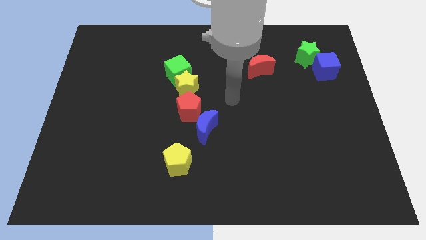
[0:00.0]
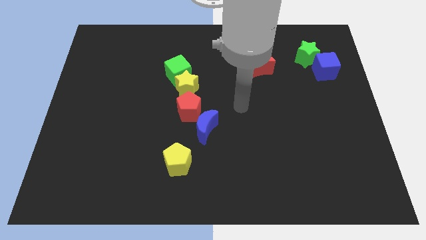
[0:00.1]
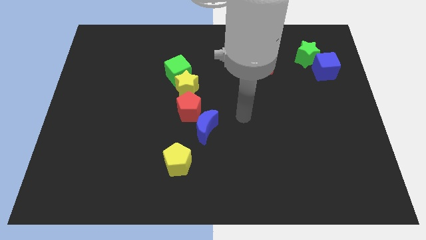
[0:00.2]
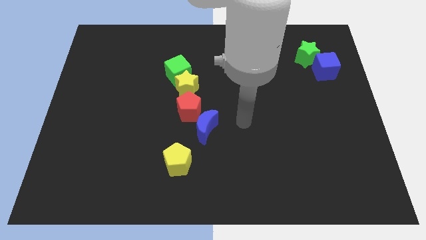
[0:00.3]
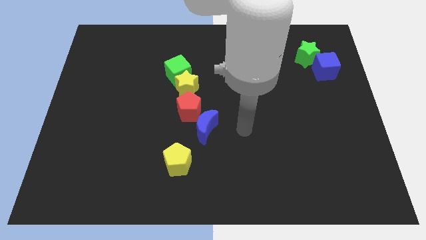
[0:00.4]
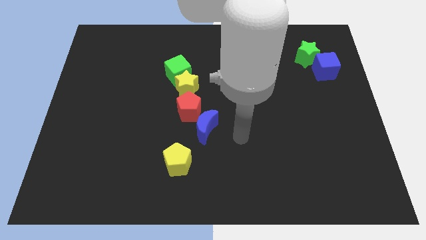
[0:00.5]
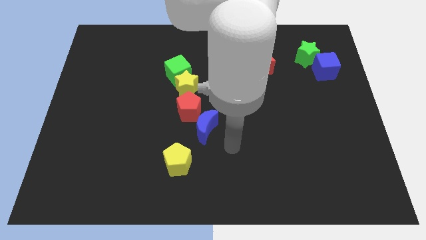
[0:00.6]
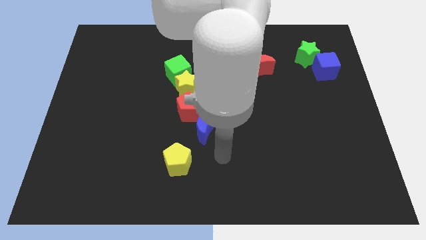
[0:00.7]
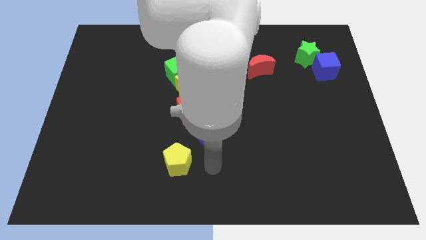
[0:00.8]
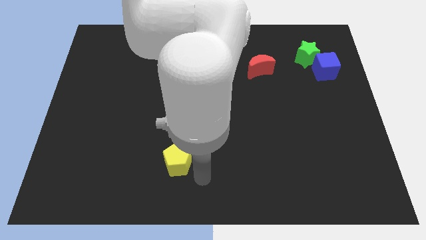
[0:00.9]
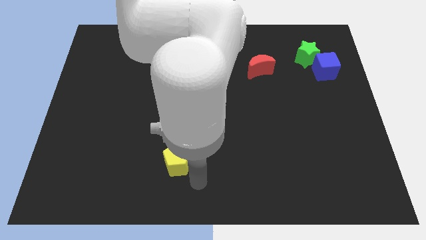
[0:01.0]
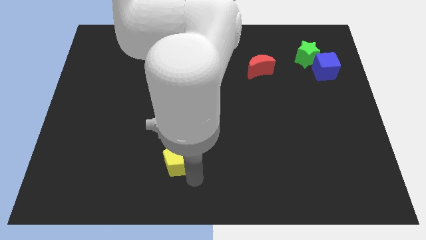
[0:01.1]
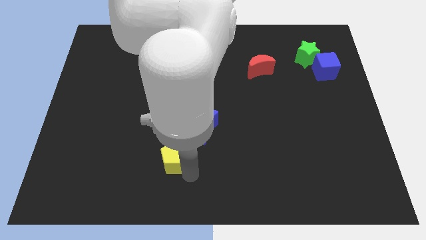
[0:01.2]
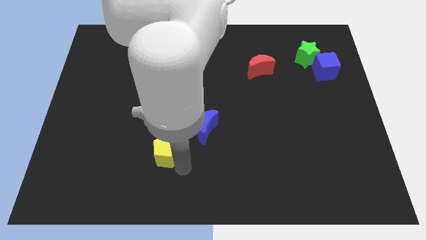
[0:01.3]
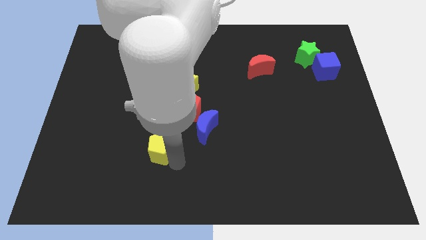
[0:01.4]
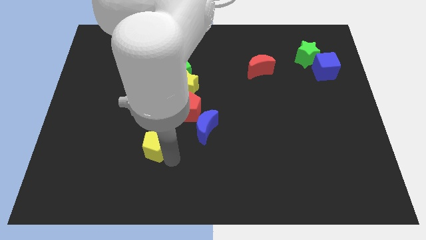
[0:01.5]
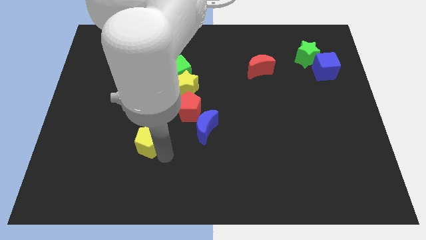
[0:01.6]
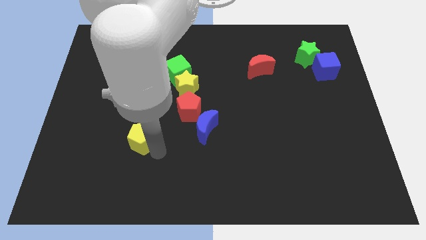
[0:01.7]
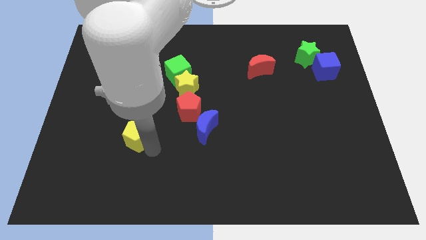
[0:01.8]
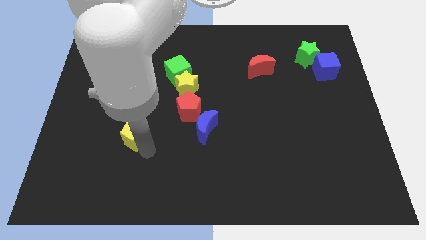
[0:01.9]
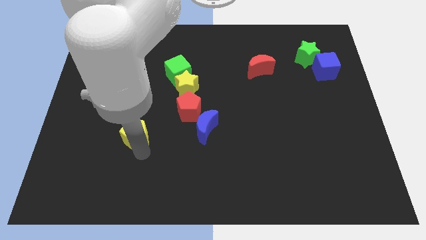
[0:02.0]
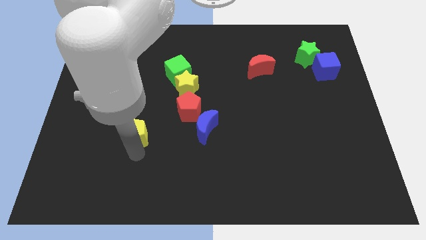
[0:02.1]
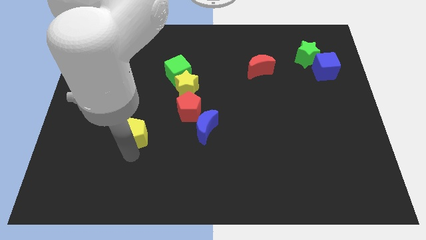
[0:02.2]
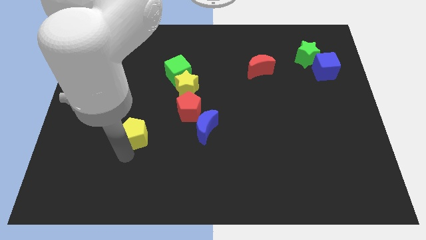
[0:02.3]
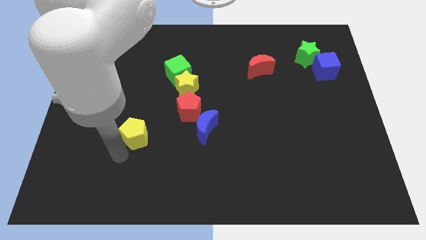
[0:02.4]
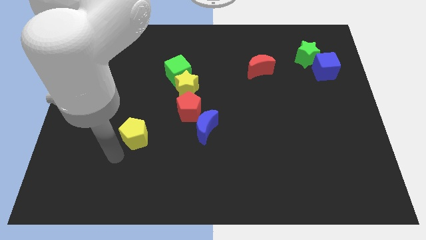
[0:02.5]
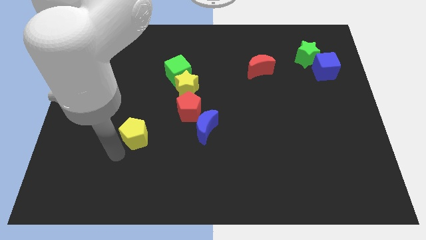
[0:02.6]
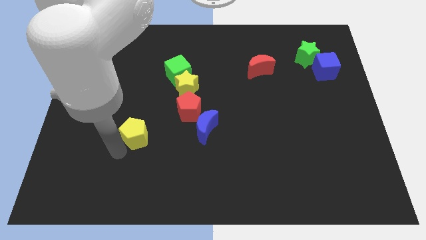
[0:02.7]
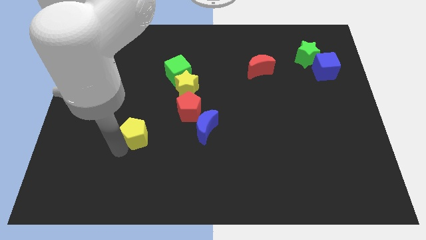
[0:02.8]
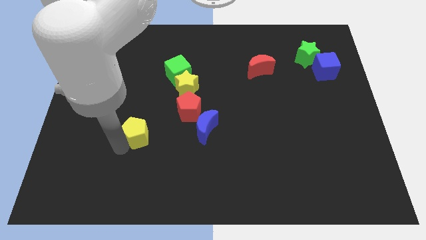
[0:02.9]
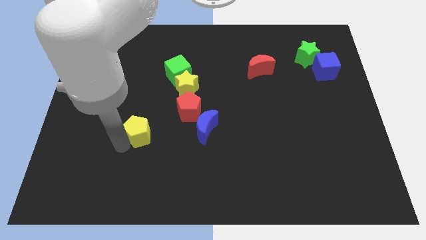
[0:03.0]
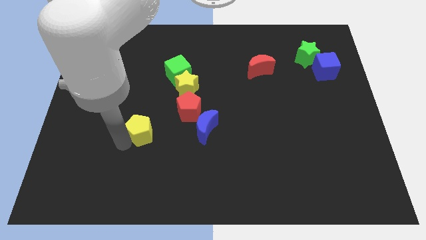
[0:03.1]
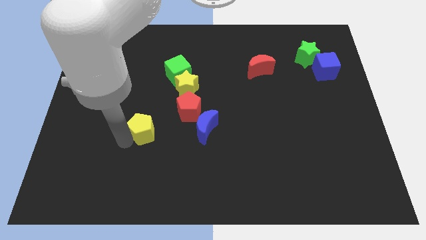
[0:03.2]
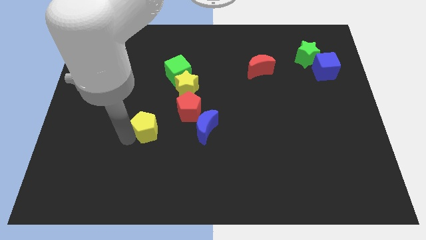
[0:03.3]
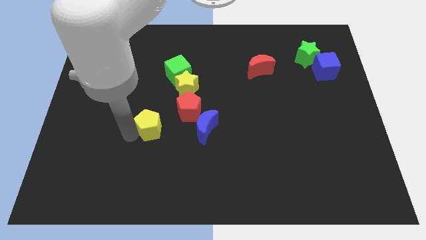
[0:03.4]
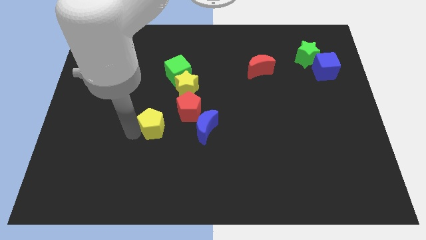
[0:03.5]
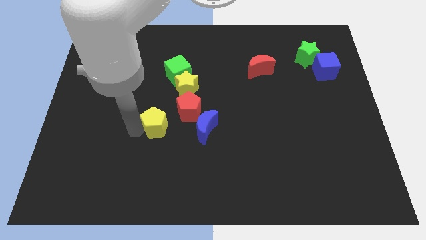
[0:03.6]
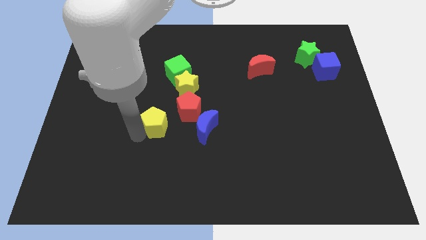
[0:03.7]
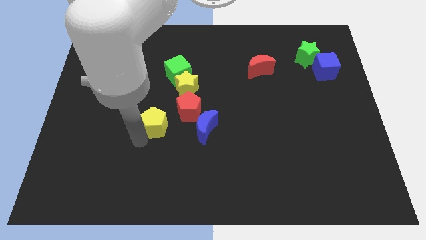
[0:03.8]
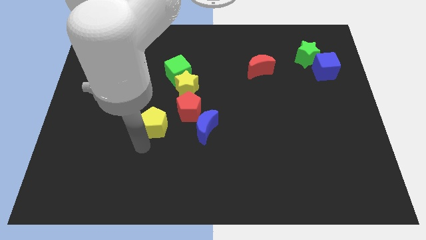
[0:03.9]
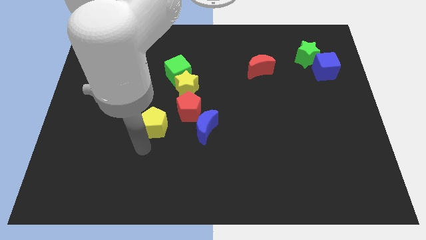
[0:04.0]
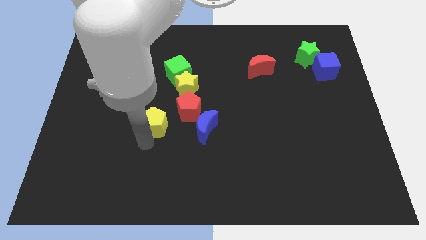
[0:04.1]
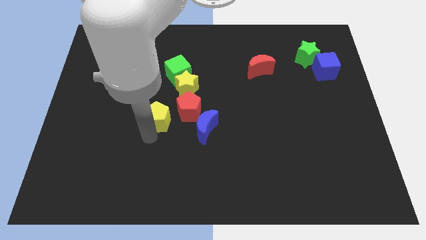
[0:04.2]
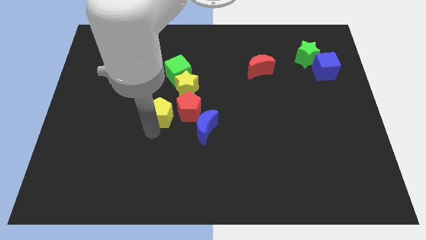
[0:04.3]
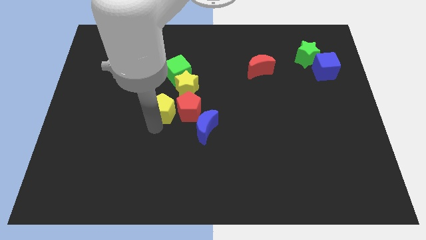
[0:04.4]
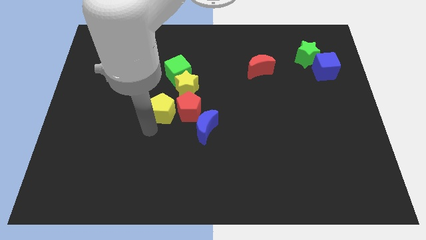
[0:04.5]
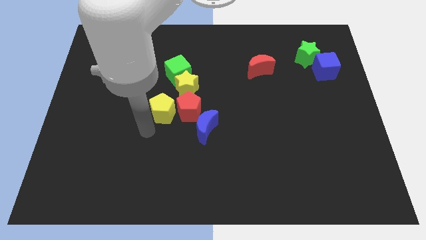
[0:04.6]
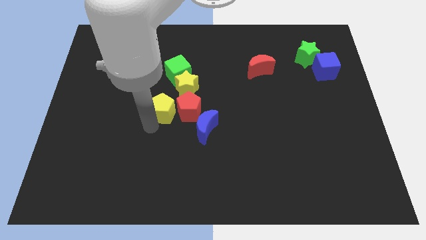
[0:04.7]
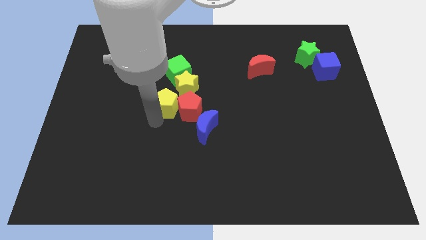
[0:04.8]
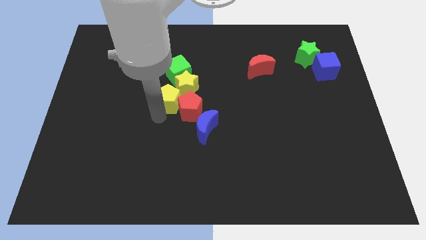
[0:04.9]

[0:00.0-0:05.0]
move the yellow pentagon to the yellow star

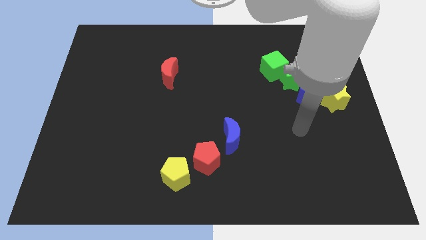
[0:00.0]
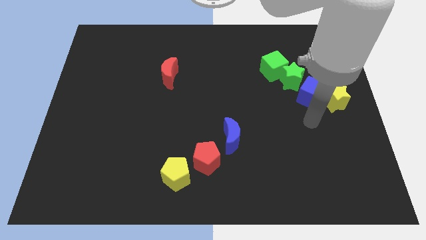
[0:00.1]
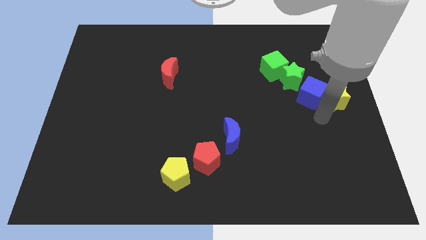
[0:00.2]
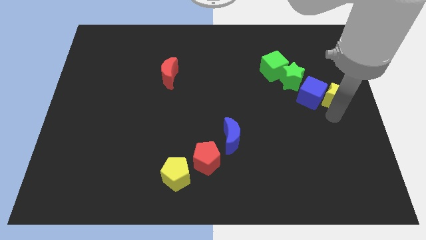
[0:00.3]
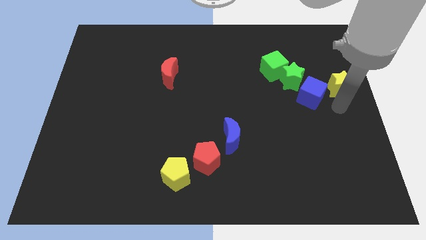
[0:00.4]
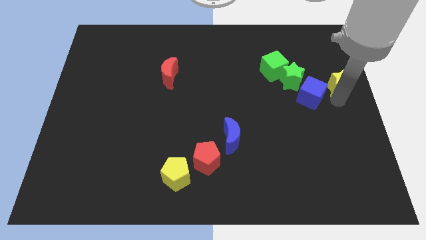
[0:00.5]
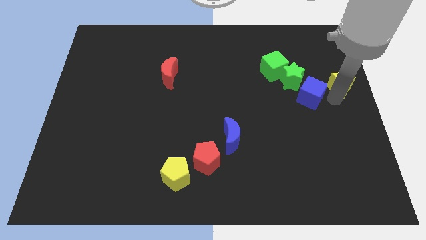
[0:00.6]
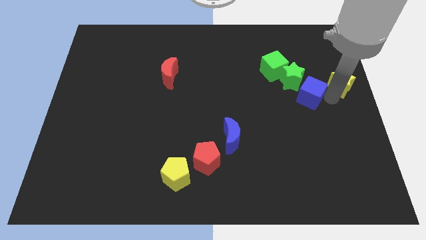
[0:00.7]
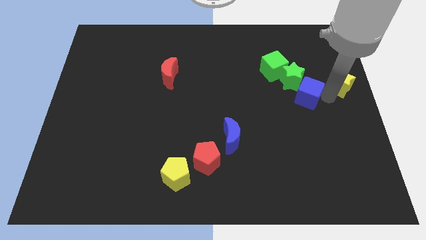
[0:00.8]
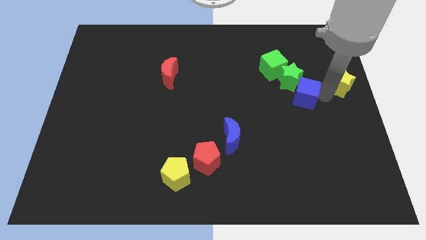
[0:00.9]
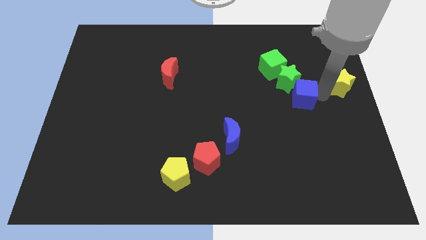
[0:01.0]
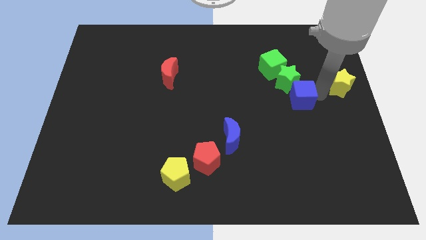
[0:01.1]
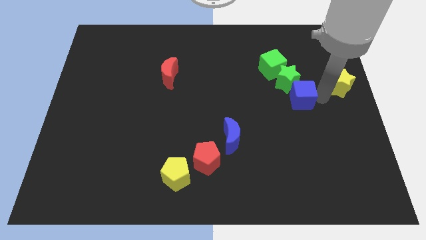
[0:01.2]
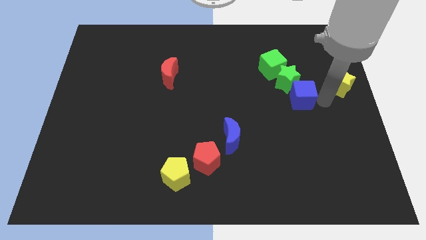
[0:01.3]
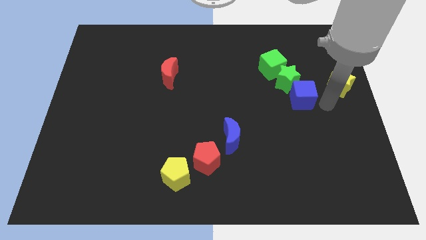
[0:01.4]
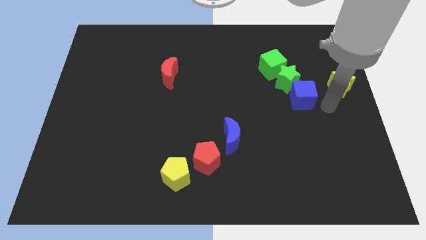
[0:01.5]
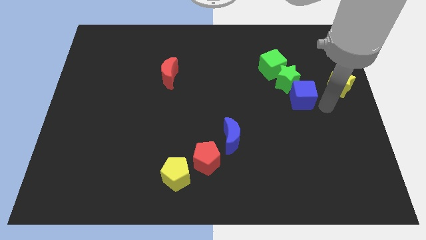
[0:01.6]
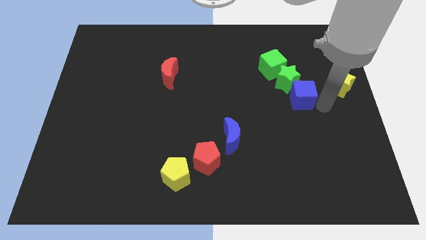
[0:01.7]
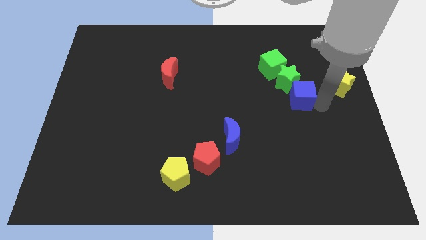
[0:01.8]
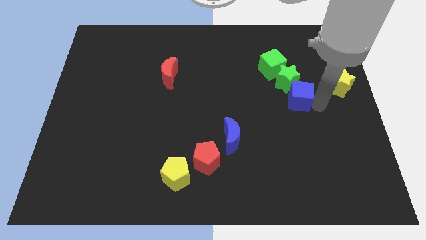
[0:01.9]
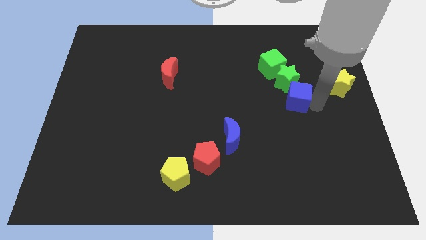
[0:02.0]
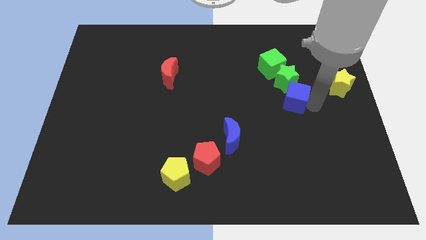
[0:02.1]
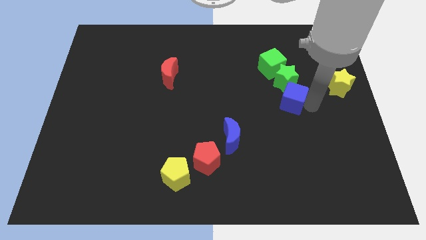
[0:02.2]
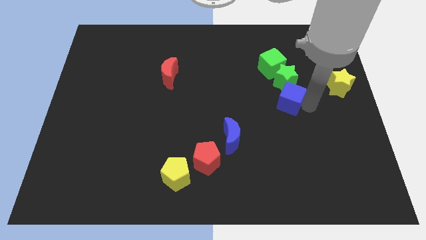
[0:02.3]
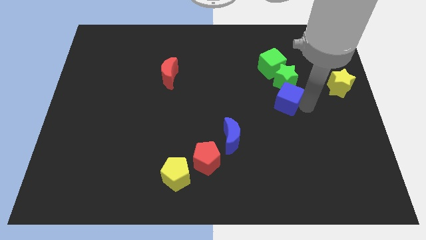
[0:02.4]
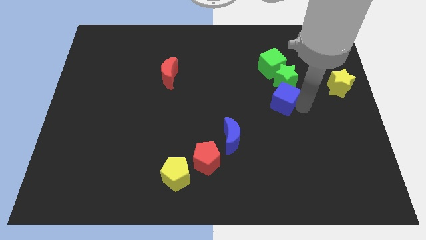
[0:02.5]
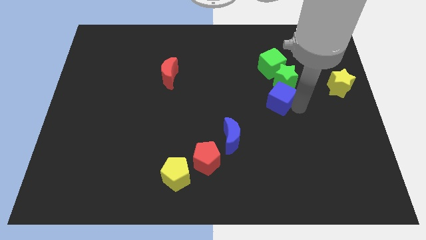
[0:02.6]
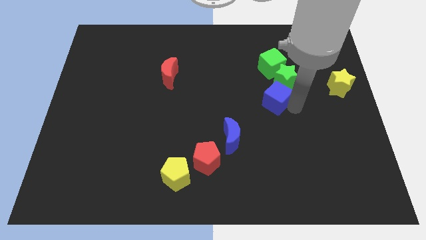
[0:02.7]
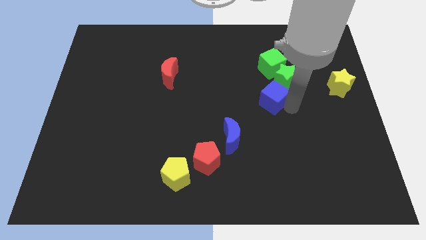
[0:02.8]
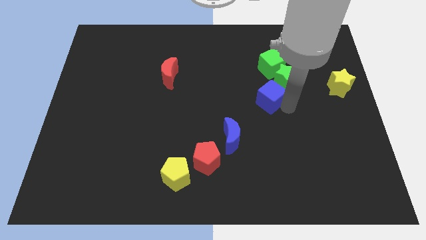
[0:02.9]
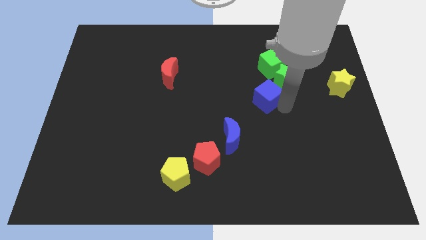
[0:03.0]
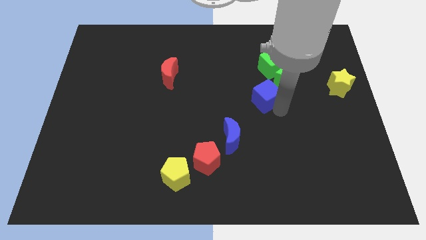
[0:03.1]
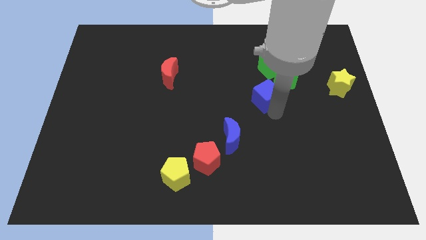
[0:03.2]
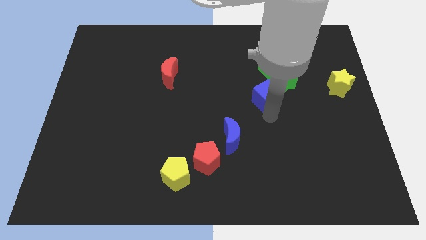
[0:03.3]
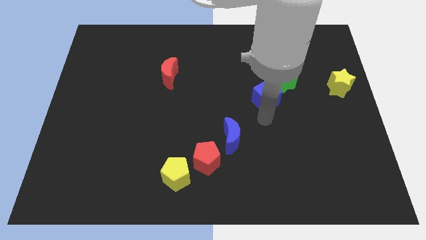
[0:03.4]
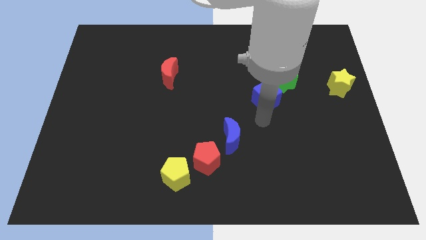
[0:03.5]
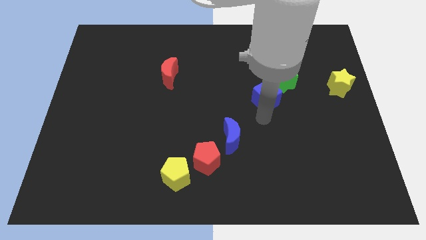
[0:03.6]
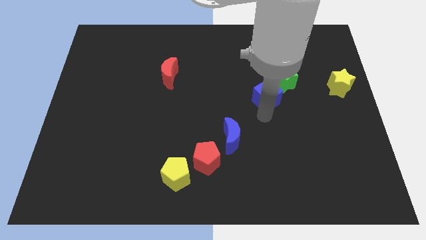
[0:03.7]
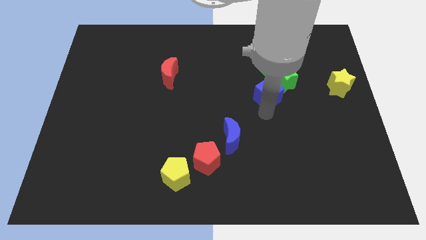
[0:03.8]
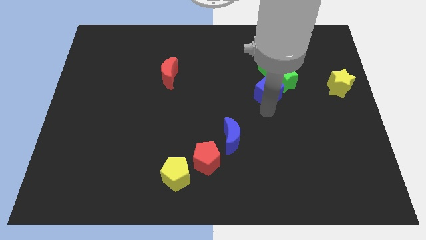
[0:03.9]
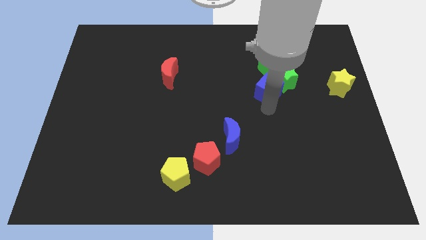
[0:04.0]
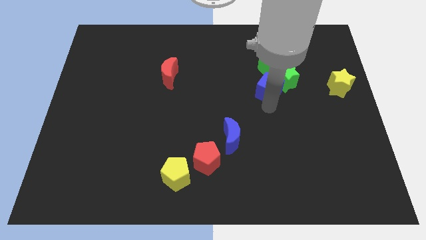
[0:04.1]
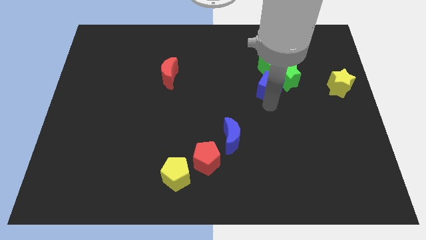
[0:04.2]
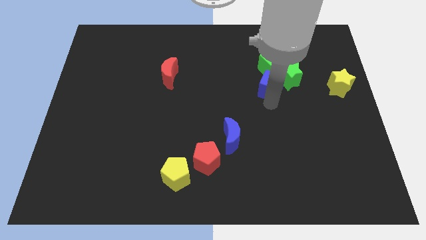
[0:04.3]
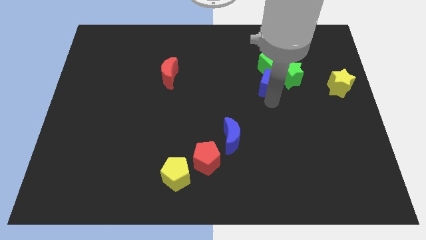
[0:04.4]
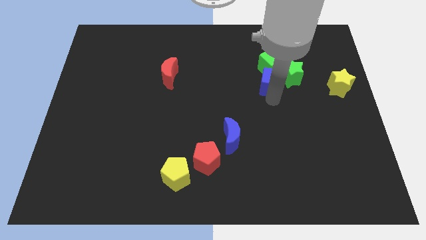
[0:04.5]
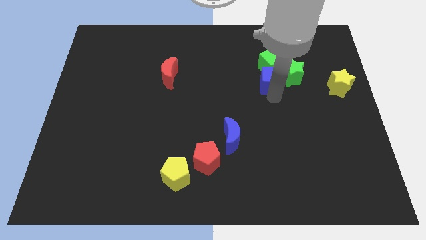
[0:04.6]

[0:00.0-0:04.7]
move the blue cube to the green cube
